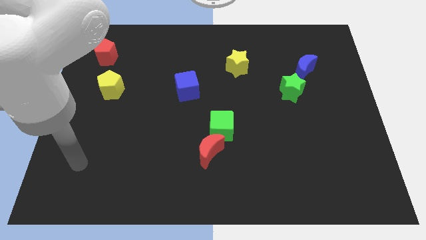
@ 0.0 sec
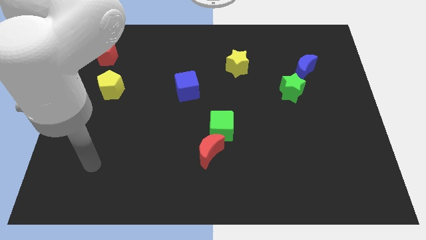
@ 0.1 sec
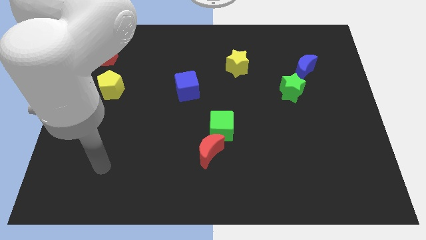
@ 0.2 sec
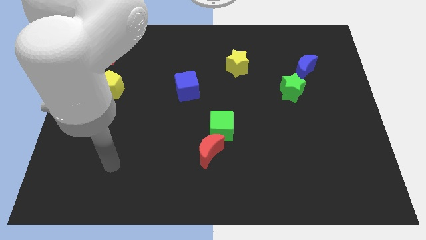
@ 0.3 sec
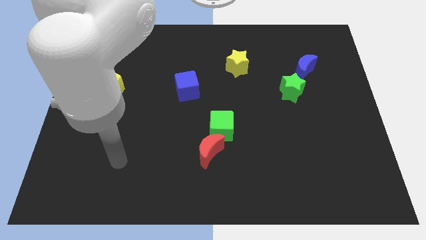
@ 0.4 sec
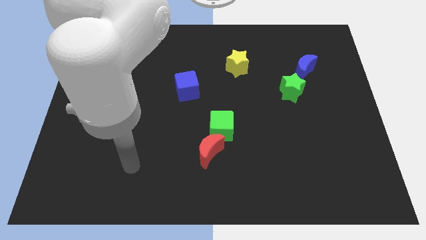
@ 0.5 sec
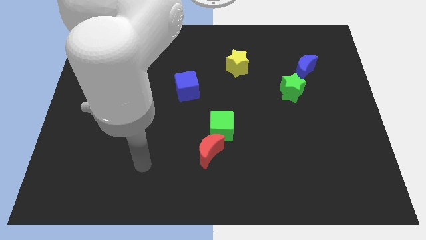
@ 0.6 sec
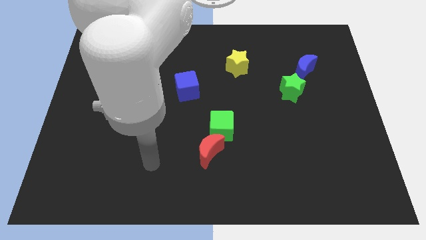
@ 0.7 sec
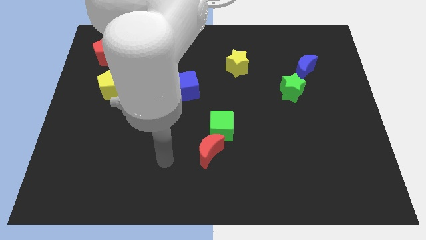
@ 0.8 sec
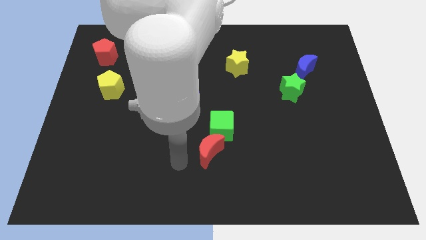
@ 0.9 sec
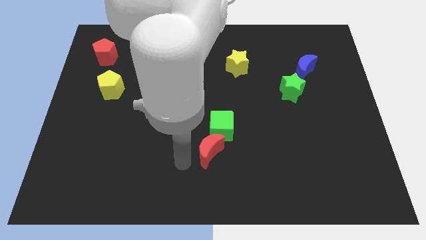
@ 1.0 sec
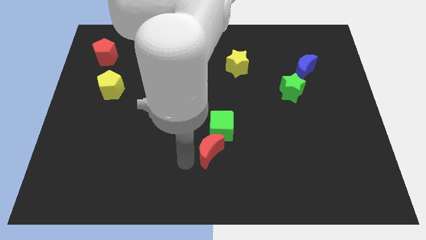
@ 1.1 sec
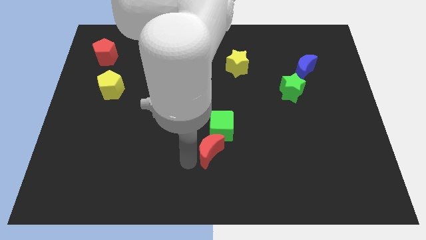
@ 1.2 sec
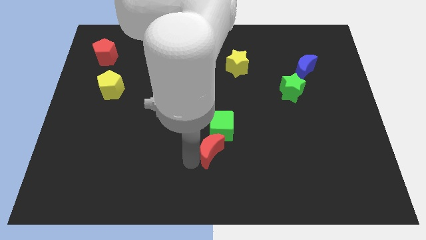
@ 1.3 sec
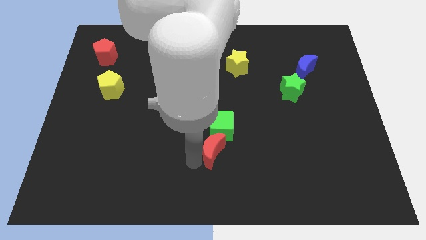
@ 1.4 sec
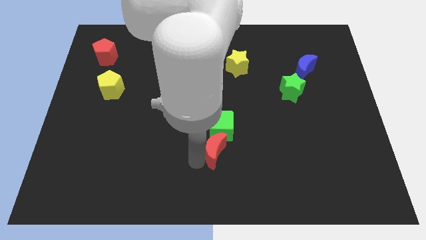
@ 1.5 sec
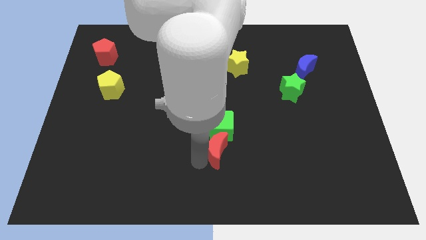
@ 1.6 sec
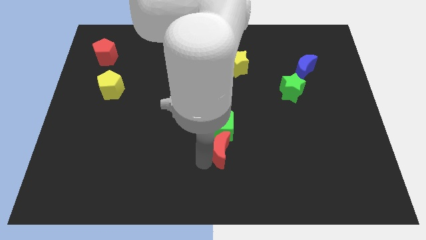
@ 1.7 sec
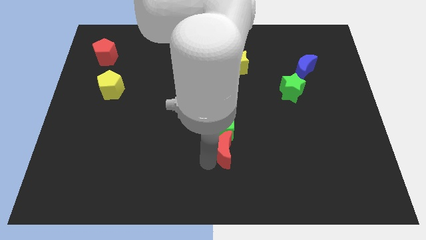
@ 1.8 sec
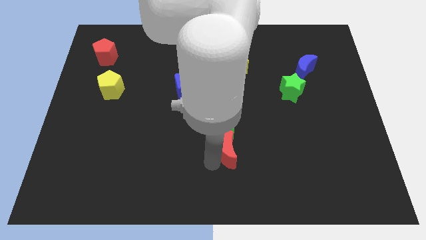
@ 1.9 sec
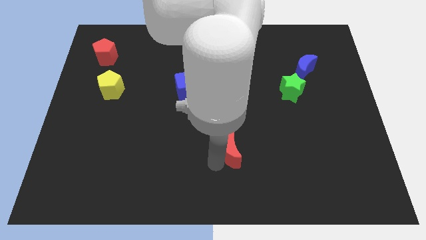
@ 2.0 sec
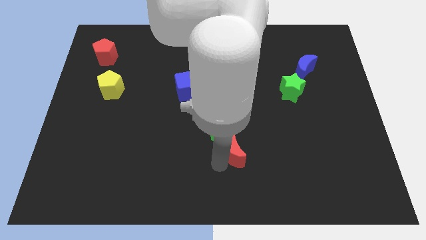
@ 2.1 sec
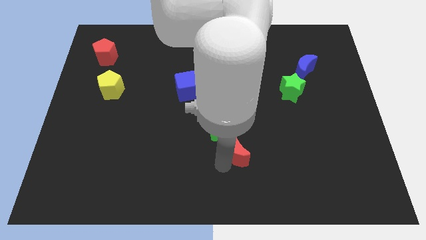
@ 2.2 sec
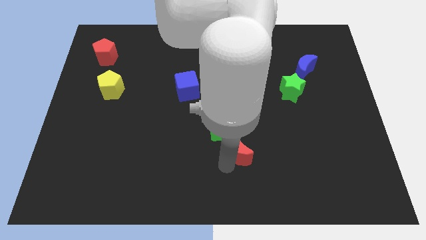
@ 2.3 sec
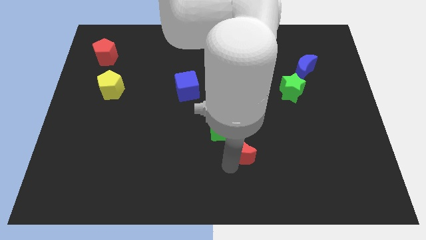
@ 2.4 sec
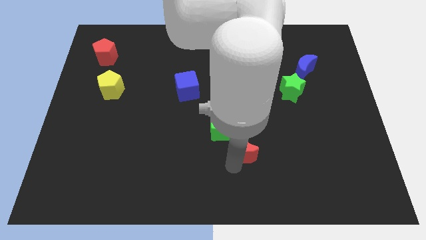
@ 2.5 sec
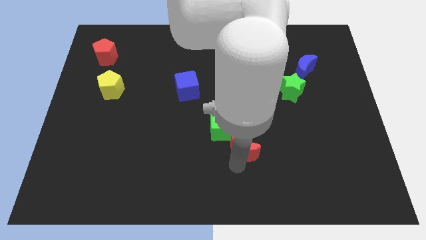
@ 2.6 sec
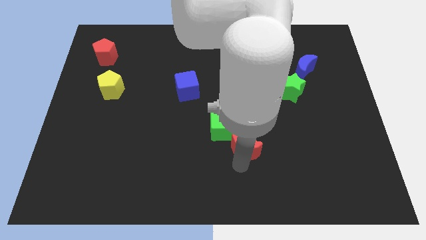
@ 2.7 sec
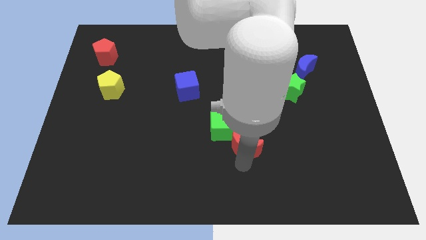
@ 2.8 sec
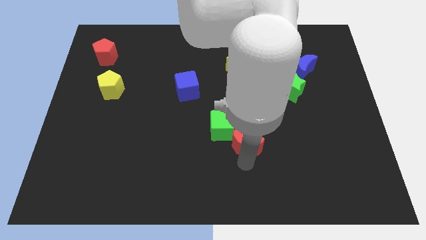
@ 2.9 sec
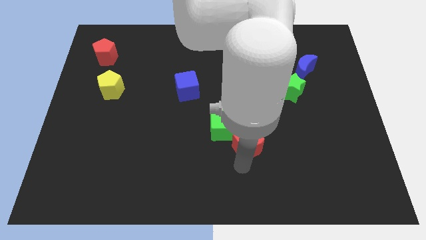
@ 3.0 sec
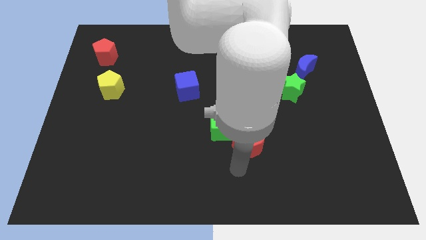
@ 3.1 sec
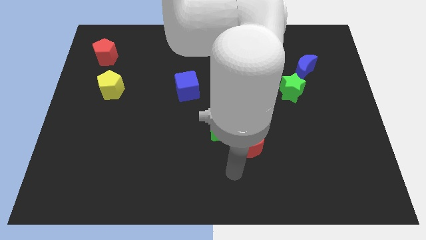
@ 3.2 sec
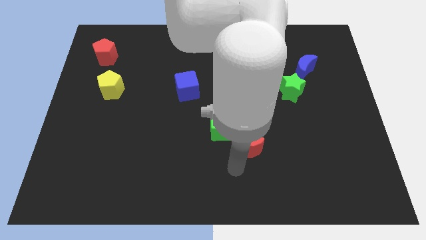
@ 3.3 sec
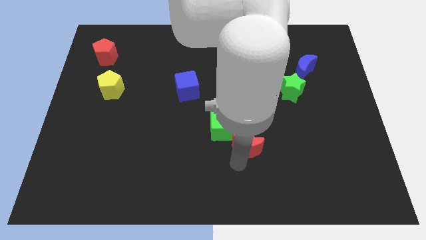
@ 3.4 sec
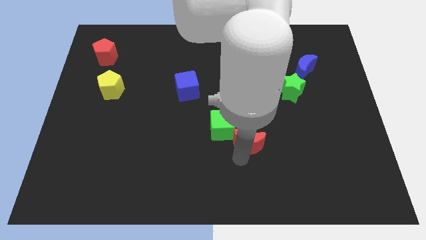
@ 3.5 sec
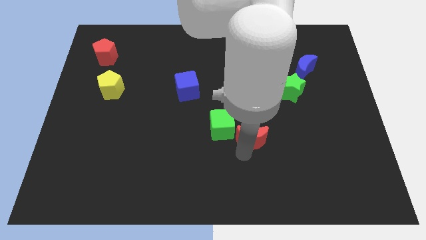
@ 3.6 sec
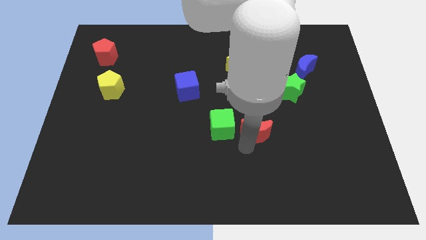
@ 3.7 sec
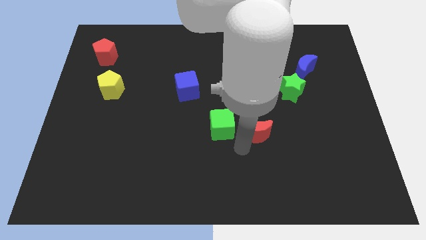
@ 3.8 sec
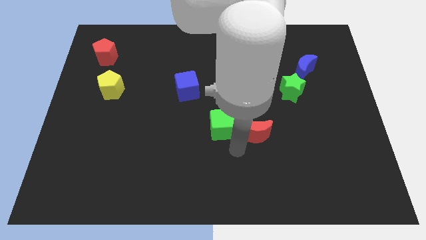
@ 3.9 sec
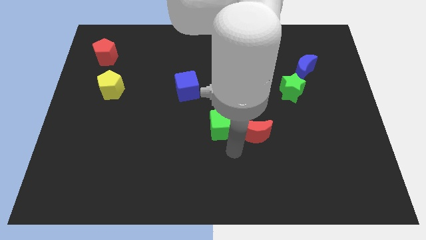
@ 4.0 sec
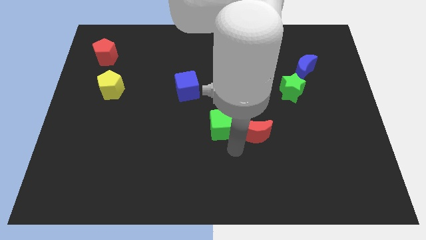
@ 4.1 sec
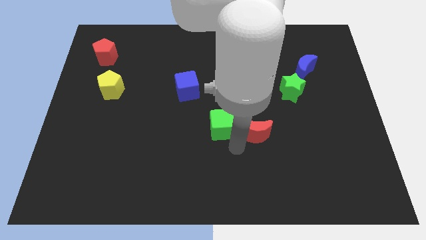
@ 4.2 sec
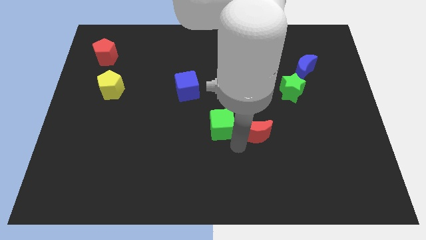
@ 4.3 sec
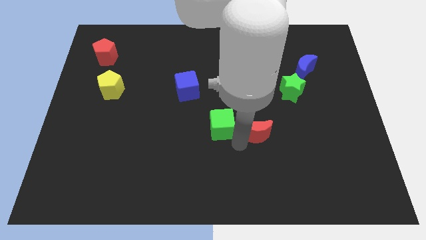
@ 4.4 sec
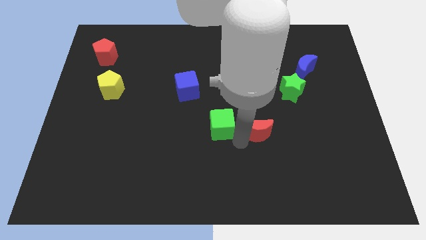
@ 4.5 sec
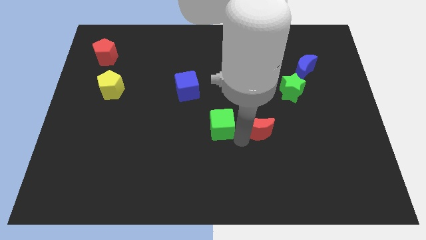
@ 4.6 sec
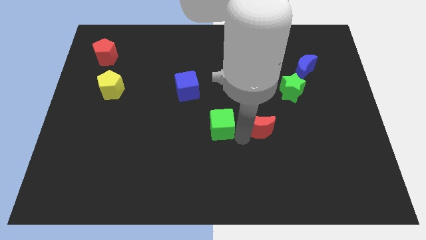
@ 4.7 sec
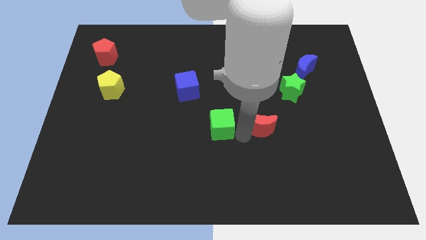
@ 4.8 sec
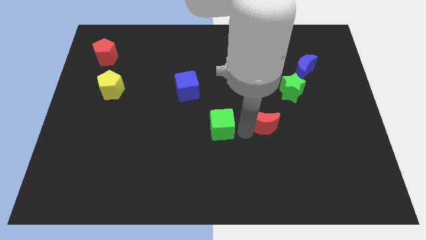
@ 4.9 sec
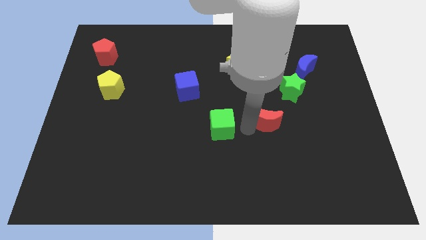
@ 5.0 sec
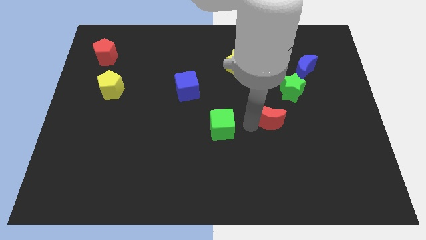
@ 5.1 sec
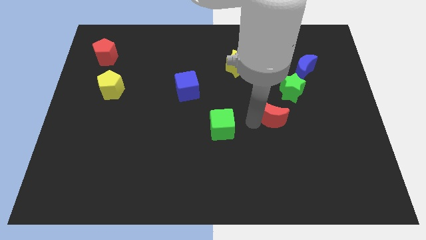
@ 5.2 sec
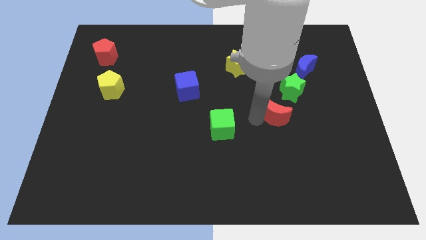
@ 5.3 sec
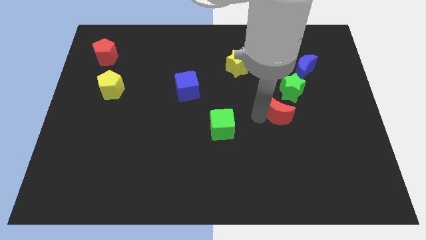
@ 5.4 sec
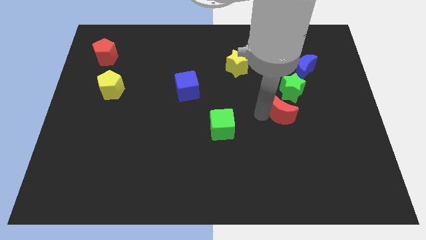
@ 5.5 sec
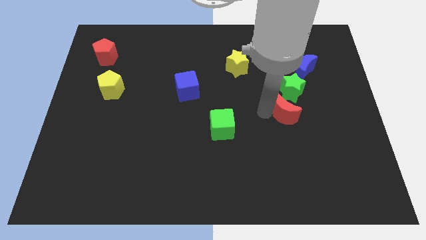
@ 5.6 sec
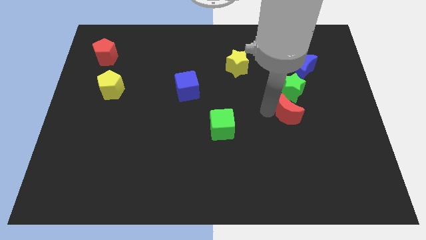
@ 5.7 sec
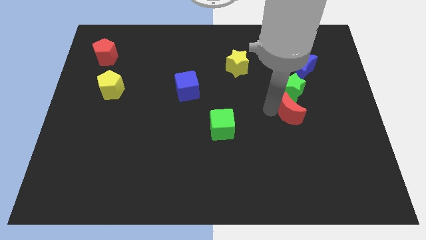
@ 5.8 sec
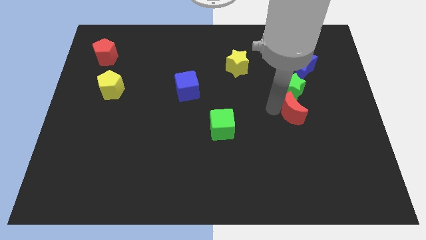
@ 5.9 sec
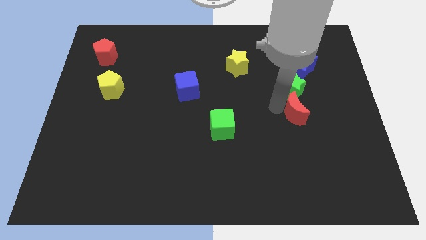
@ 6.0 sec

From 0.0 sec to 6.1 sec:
push the red moon to the bottom of the blue moon

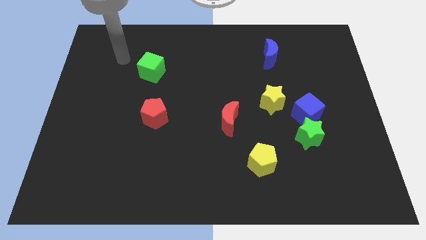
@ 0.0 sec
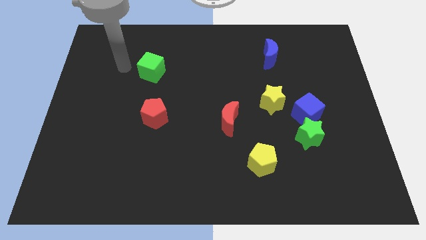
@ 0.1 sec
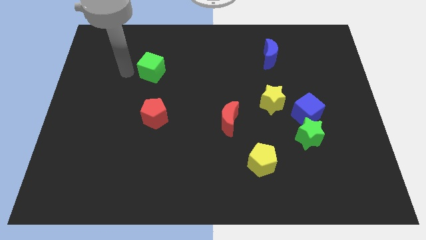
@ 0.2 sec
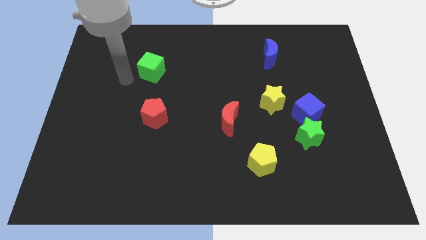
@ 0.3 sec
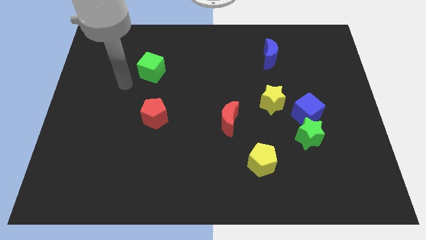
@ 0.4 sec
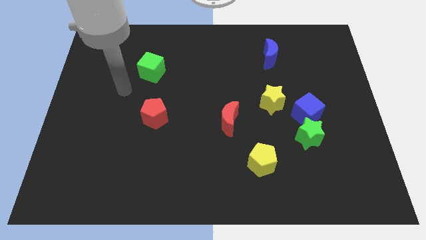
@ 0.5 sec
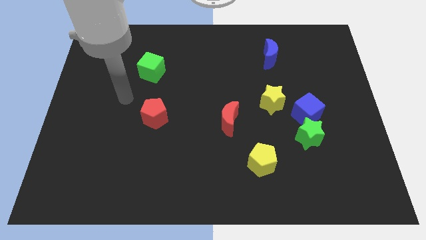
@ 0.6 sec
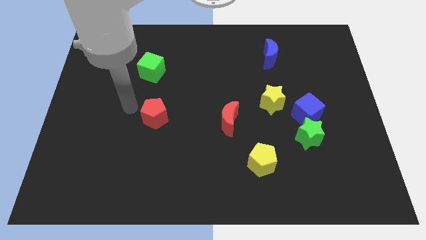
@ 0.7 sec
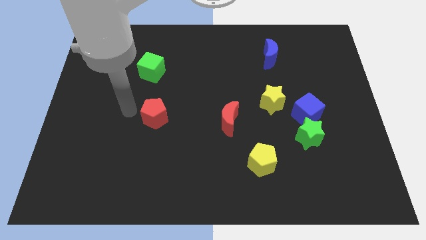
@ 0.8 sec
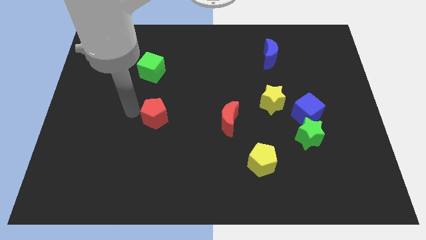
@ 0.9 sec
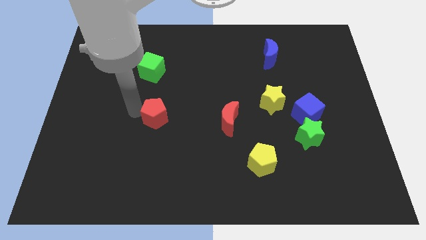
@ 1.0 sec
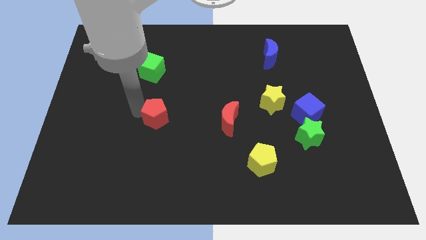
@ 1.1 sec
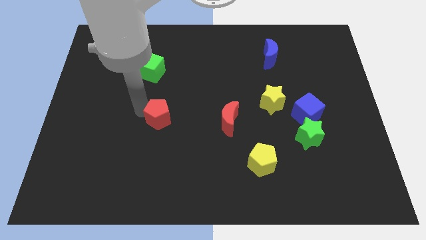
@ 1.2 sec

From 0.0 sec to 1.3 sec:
slide the red pentagon left of the red moon
